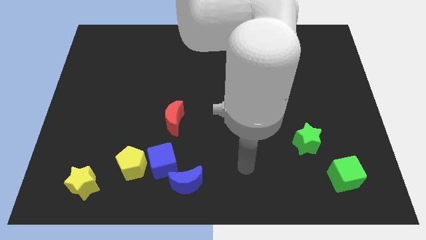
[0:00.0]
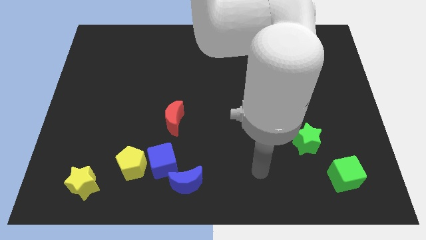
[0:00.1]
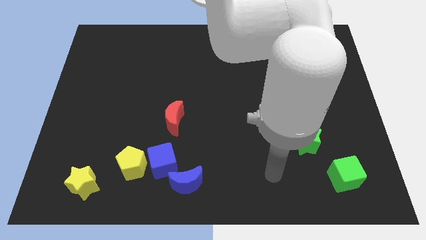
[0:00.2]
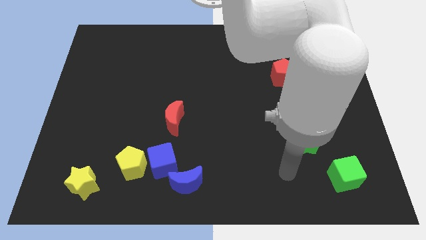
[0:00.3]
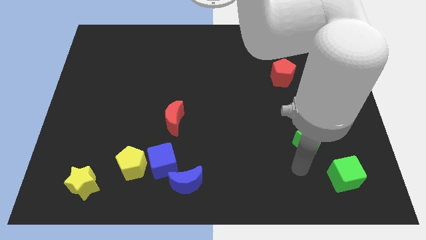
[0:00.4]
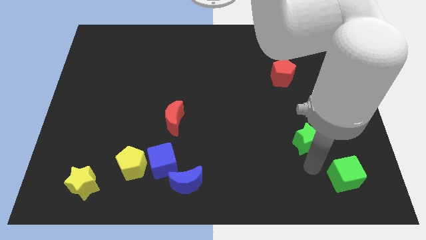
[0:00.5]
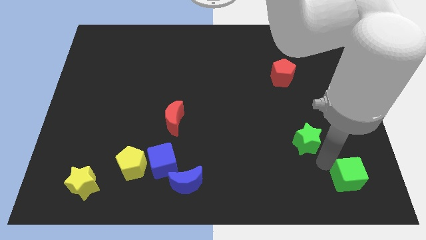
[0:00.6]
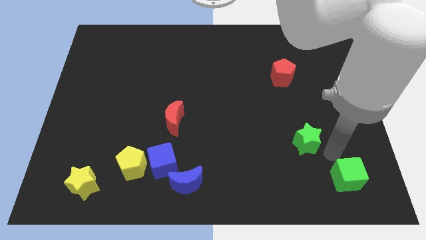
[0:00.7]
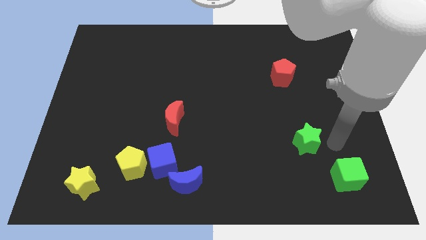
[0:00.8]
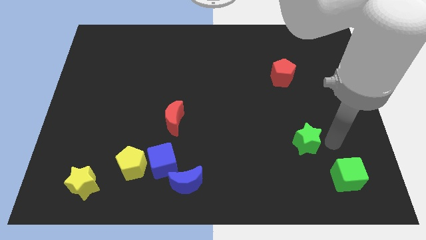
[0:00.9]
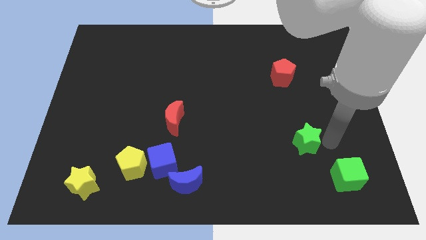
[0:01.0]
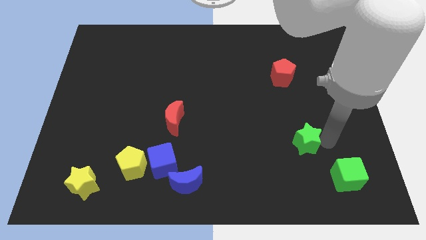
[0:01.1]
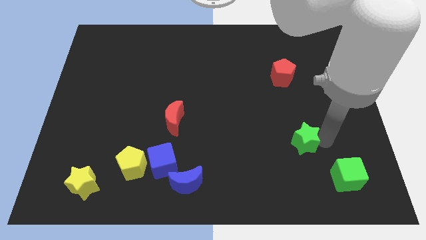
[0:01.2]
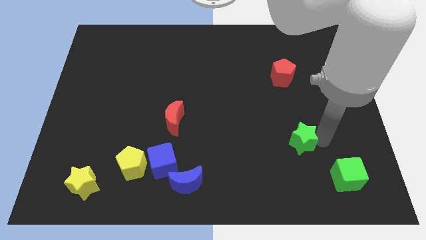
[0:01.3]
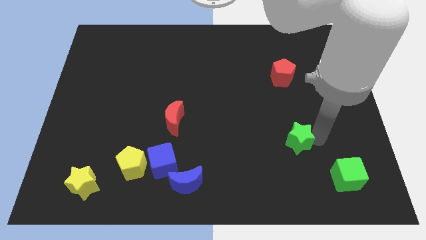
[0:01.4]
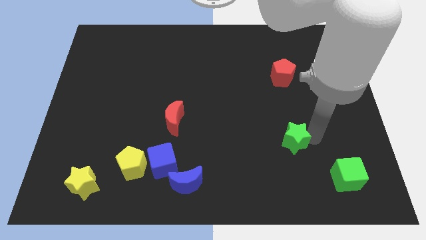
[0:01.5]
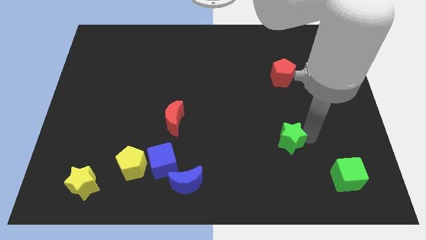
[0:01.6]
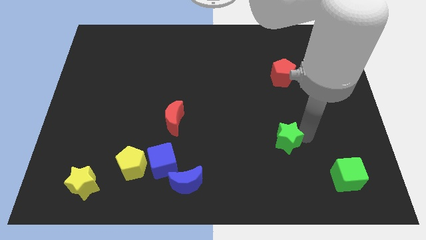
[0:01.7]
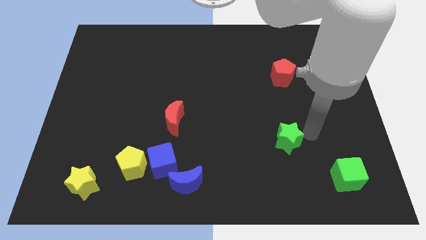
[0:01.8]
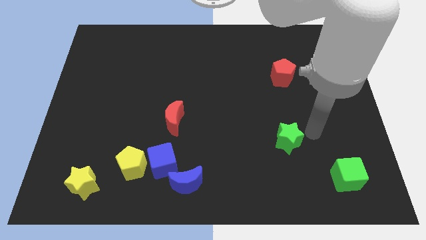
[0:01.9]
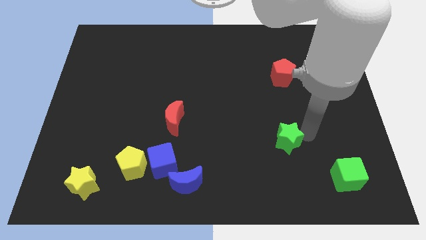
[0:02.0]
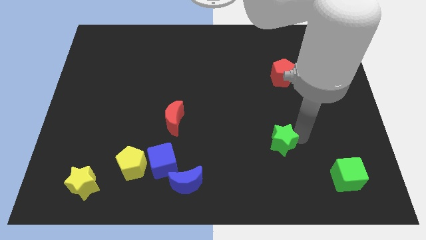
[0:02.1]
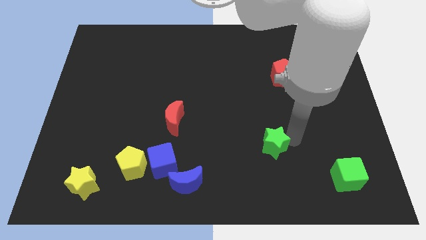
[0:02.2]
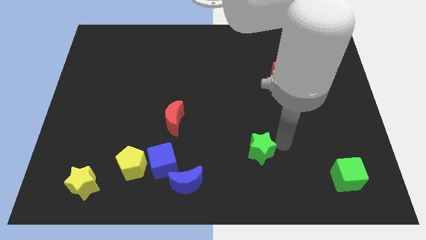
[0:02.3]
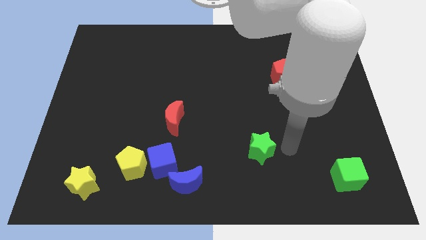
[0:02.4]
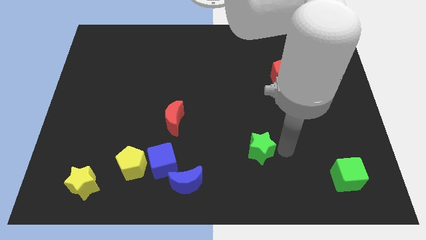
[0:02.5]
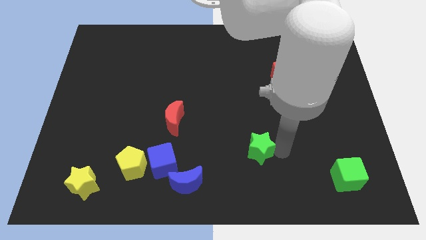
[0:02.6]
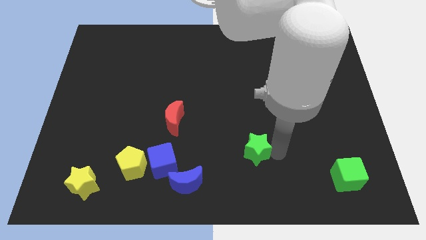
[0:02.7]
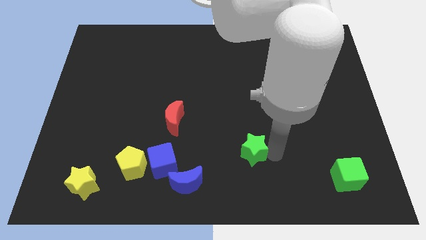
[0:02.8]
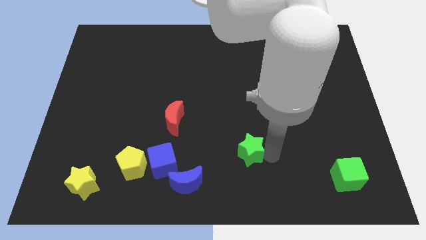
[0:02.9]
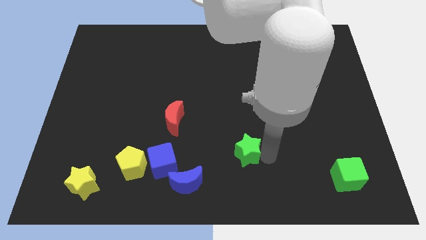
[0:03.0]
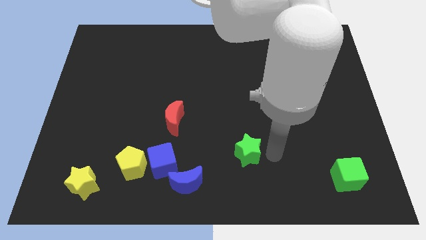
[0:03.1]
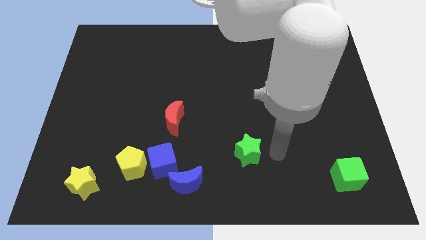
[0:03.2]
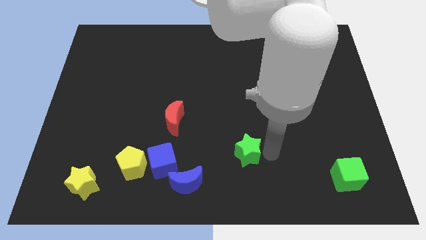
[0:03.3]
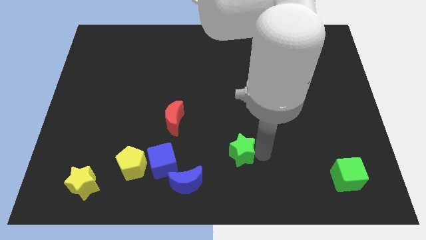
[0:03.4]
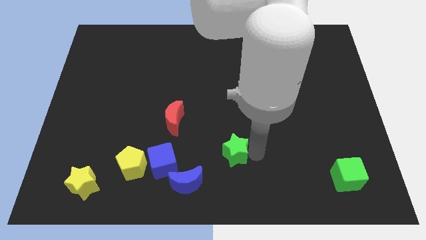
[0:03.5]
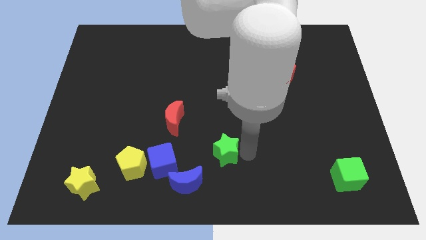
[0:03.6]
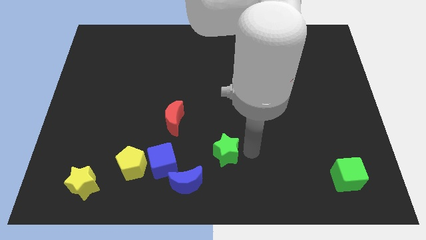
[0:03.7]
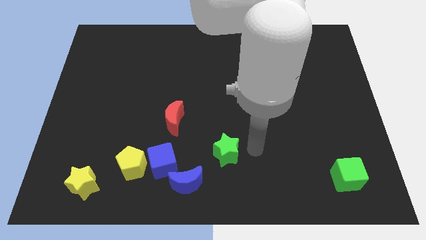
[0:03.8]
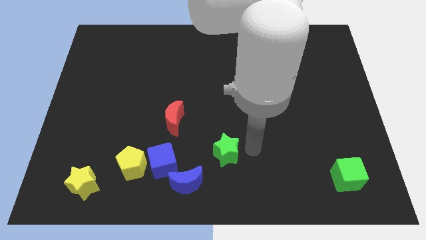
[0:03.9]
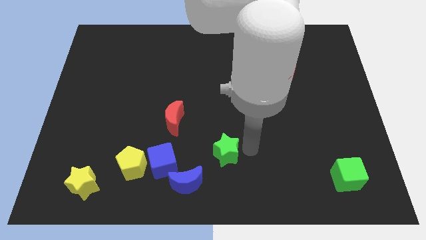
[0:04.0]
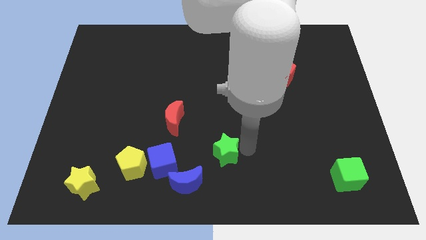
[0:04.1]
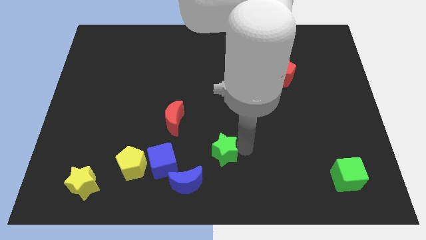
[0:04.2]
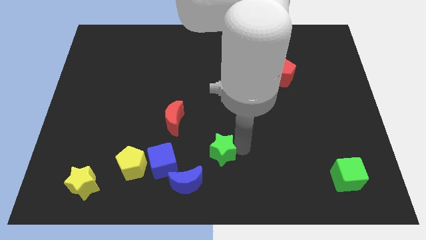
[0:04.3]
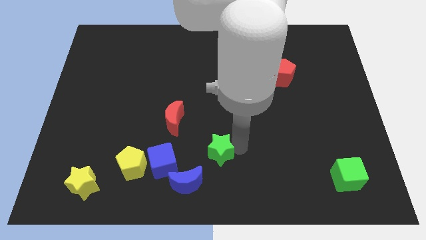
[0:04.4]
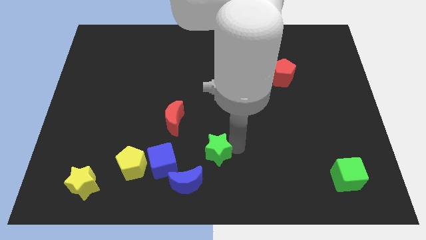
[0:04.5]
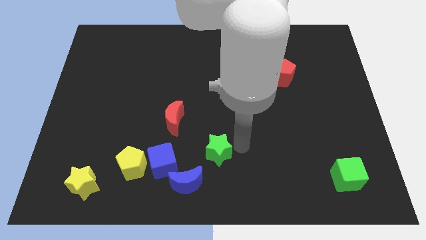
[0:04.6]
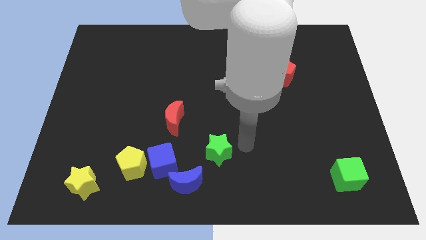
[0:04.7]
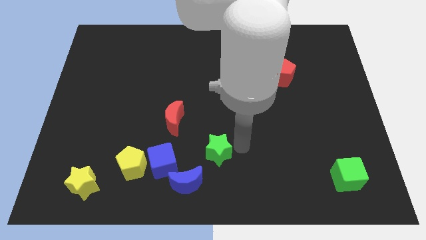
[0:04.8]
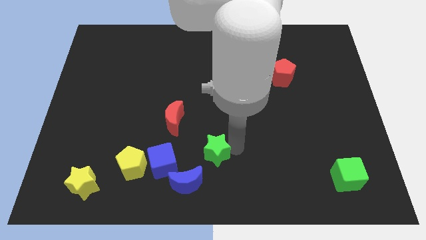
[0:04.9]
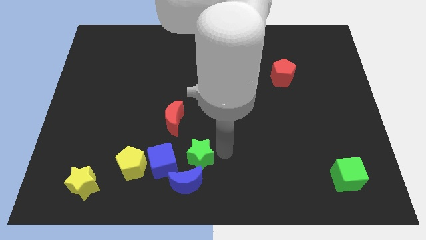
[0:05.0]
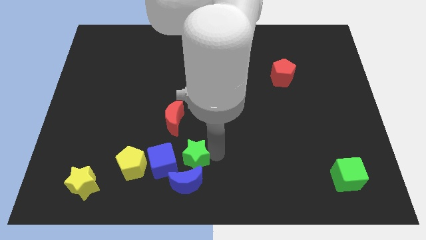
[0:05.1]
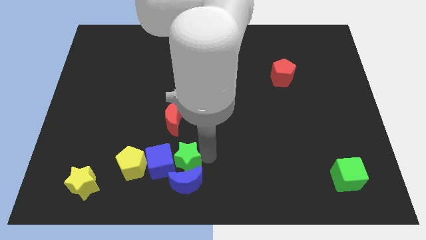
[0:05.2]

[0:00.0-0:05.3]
slide the green star to the blue cube

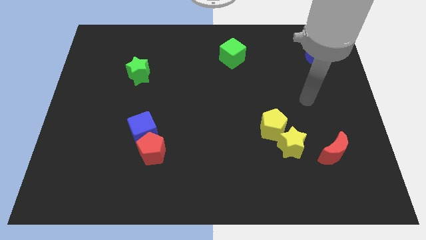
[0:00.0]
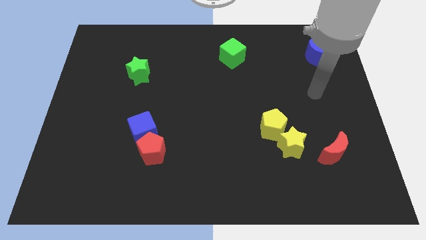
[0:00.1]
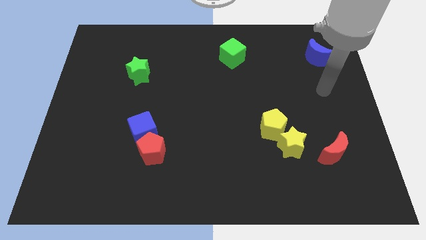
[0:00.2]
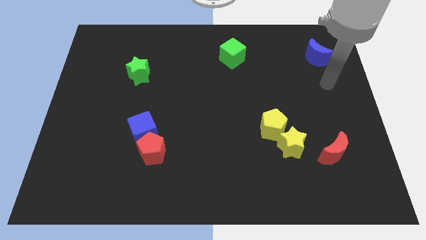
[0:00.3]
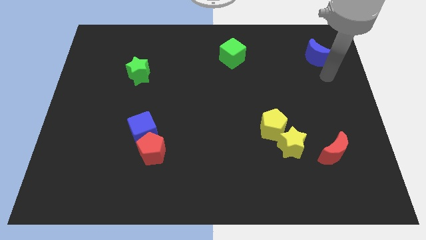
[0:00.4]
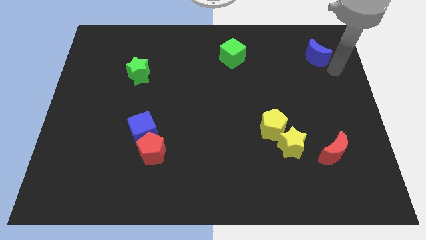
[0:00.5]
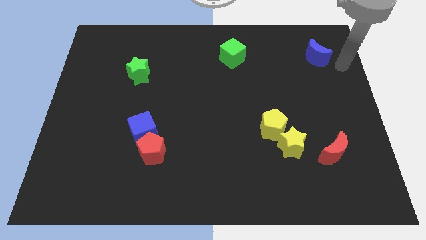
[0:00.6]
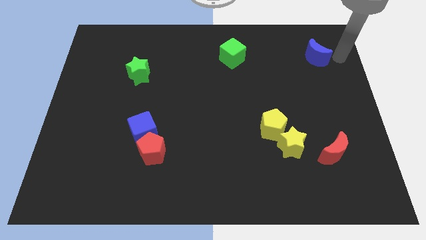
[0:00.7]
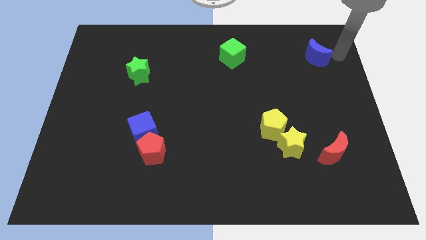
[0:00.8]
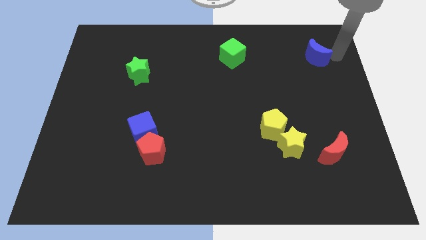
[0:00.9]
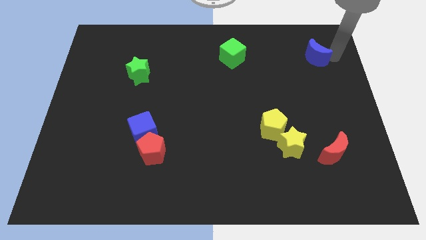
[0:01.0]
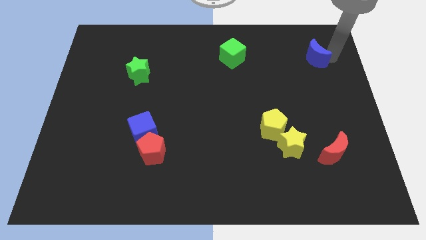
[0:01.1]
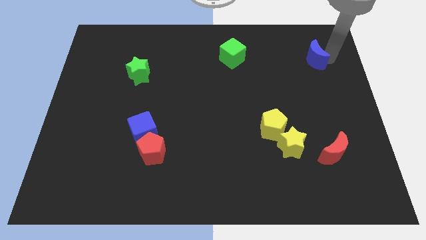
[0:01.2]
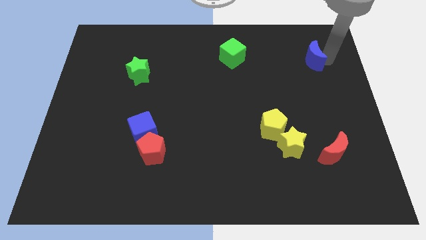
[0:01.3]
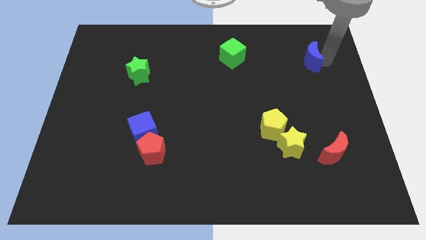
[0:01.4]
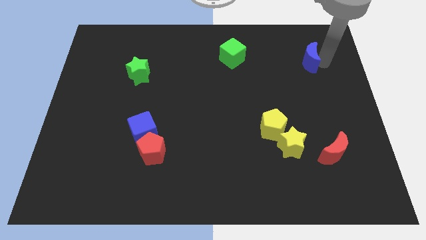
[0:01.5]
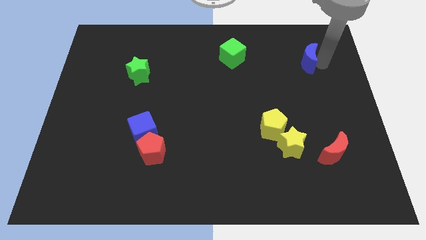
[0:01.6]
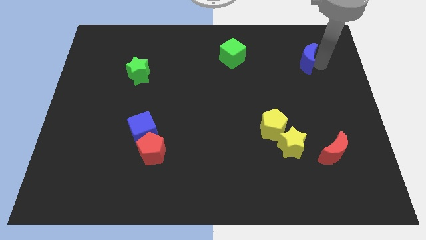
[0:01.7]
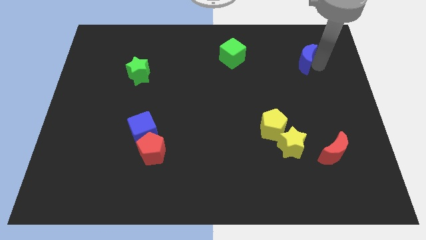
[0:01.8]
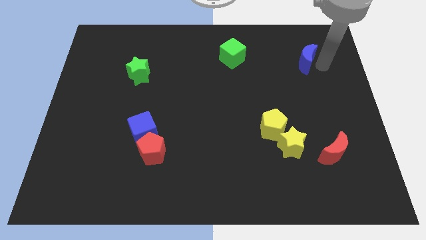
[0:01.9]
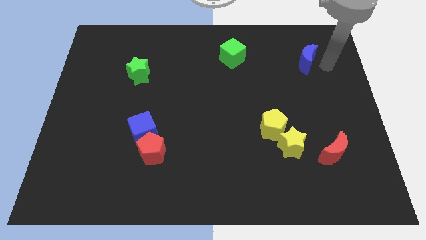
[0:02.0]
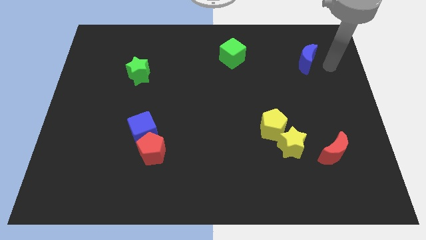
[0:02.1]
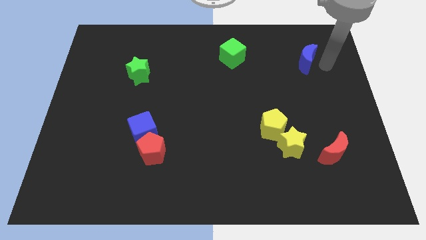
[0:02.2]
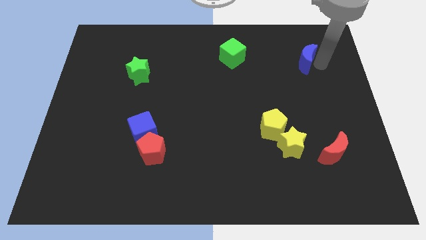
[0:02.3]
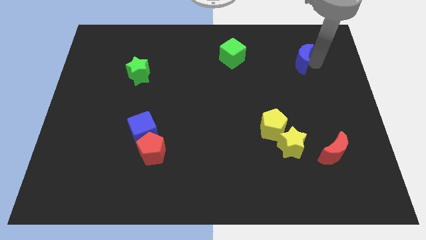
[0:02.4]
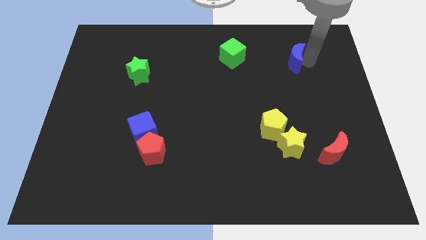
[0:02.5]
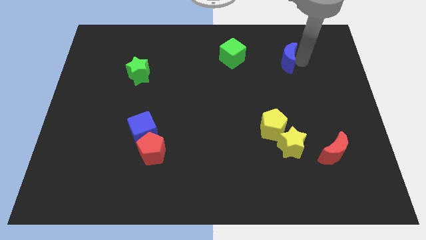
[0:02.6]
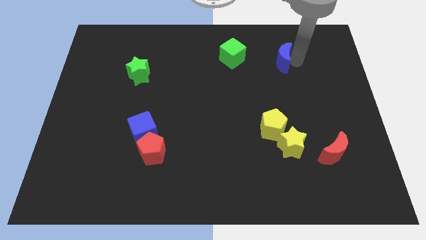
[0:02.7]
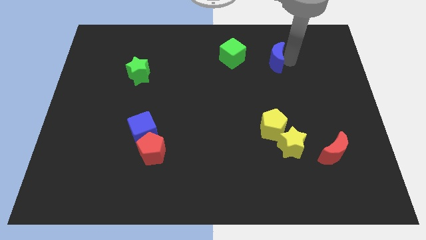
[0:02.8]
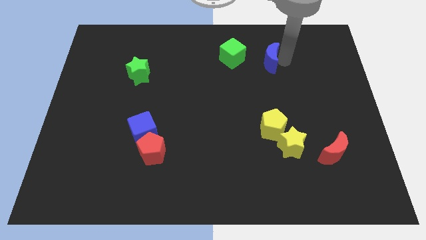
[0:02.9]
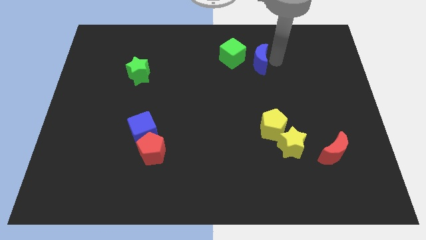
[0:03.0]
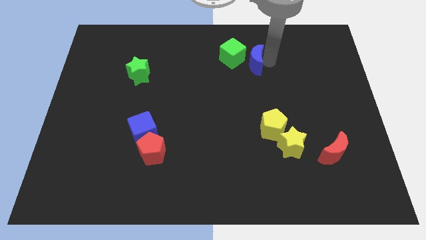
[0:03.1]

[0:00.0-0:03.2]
slide the blue moon close to the green cube
